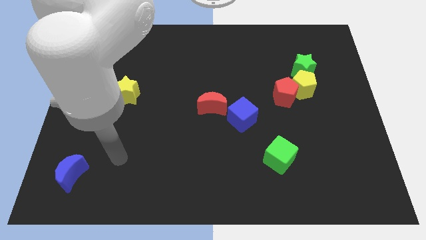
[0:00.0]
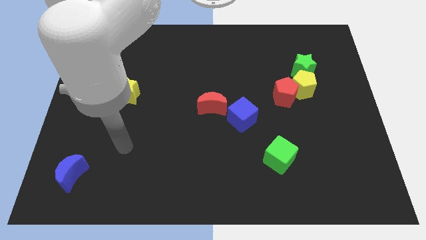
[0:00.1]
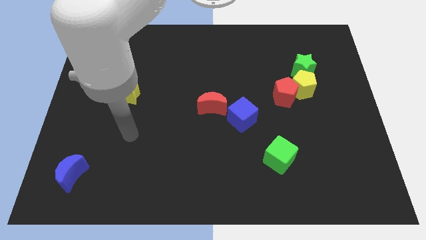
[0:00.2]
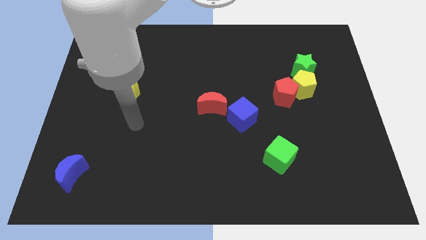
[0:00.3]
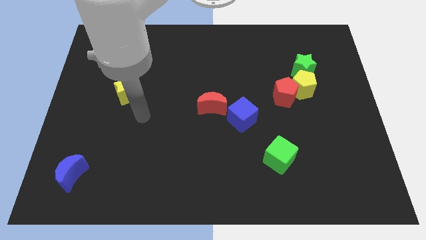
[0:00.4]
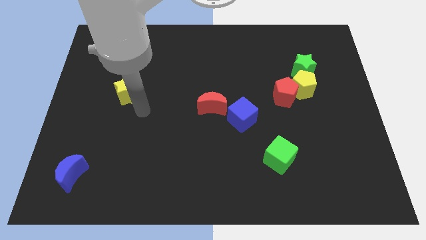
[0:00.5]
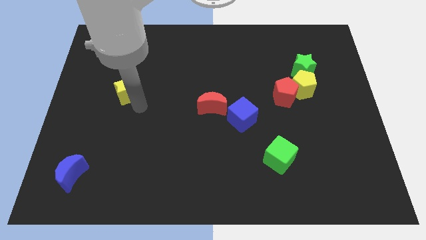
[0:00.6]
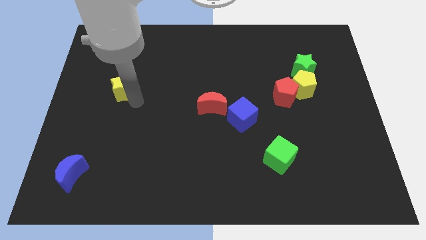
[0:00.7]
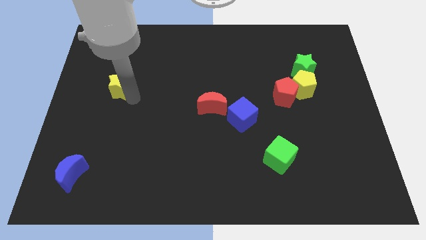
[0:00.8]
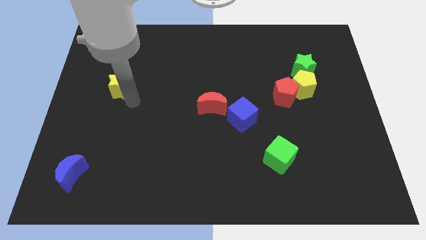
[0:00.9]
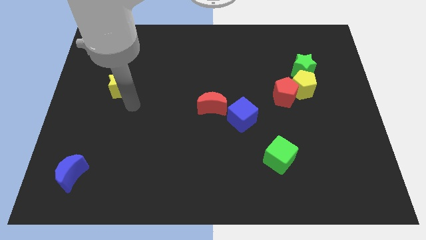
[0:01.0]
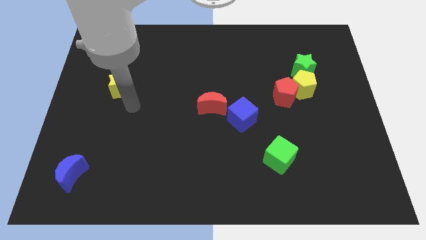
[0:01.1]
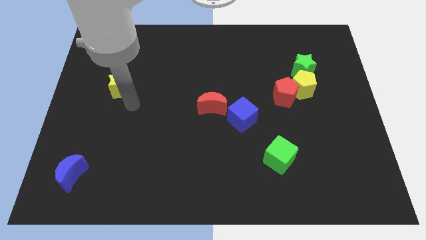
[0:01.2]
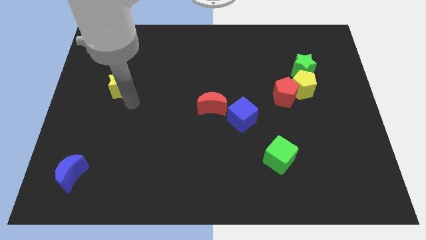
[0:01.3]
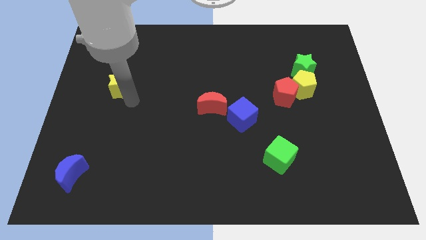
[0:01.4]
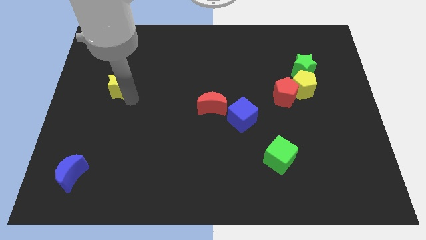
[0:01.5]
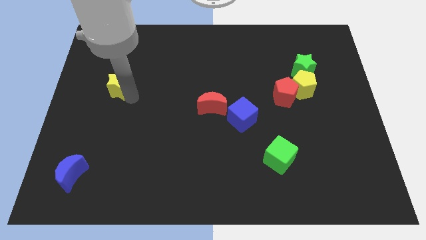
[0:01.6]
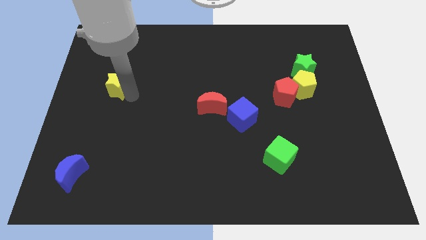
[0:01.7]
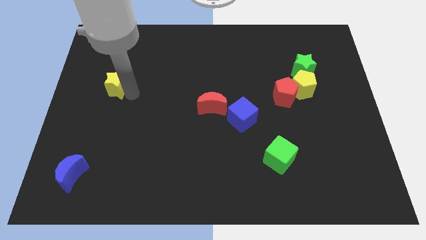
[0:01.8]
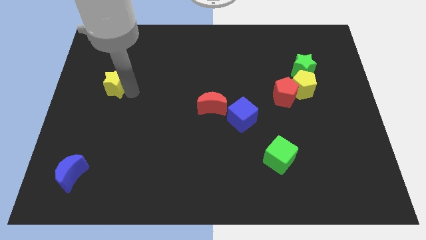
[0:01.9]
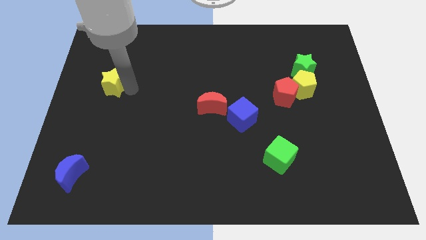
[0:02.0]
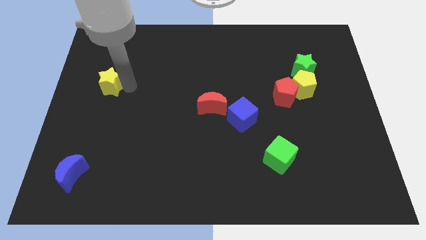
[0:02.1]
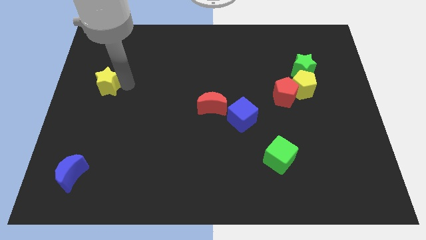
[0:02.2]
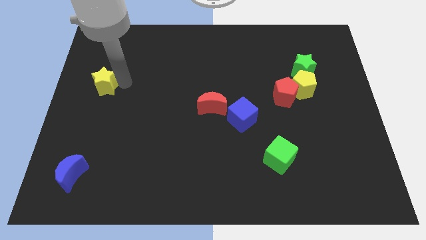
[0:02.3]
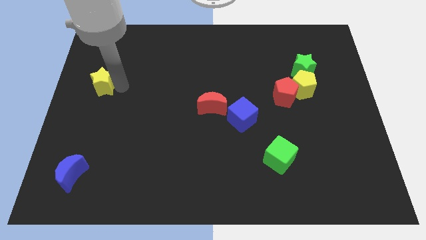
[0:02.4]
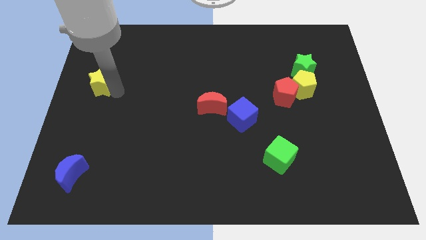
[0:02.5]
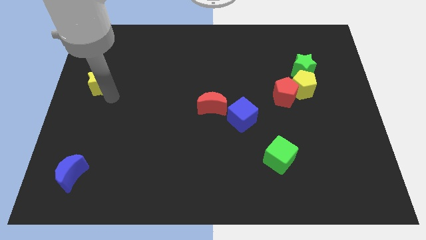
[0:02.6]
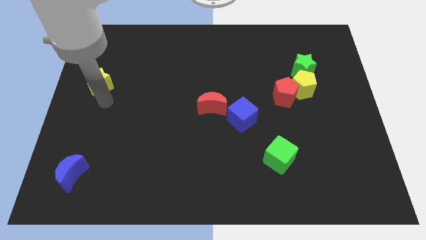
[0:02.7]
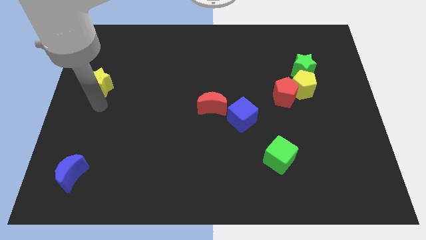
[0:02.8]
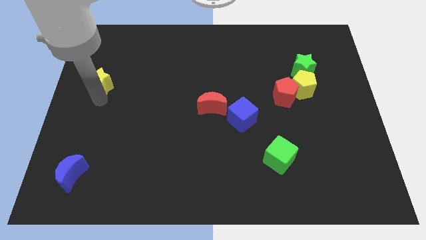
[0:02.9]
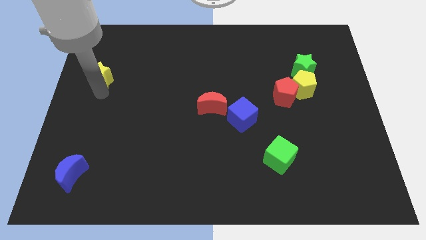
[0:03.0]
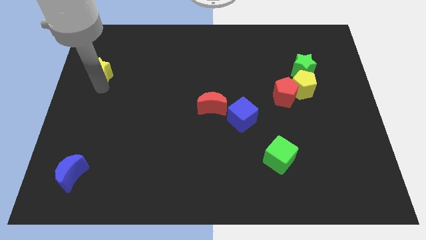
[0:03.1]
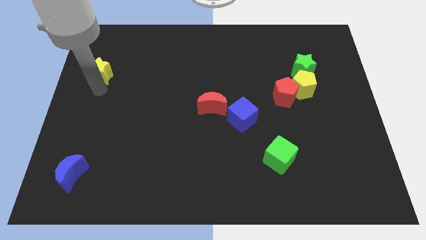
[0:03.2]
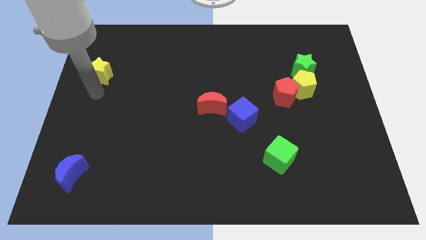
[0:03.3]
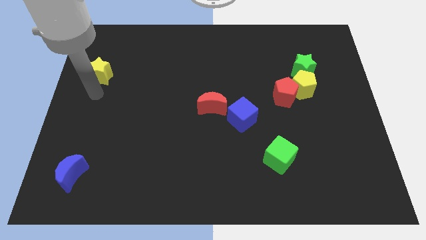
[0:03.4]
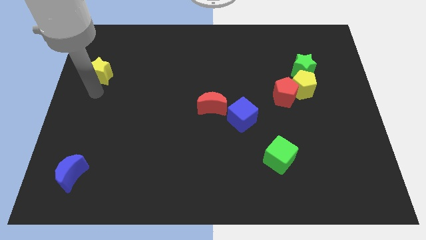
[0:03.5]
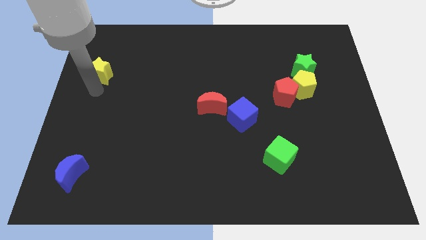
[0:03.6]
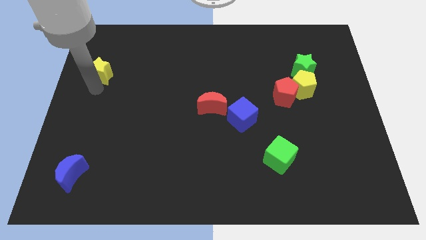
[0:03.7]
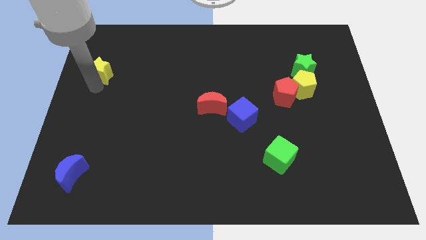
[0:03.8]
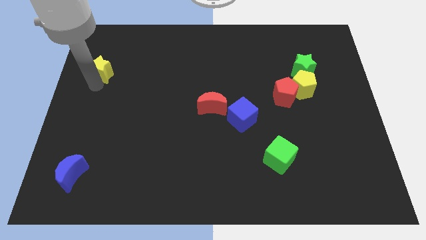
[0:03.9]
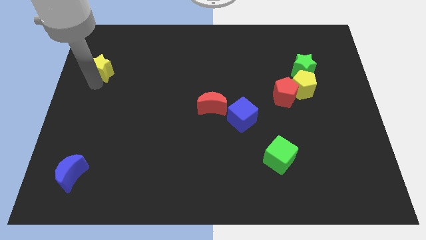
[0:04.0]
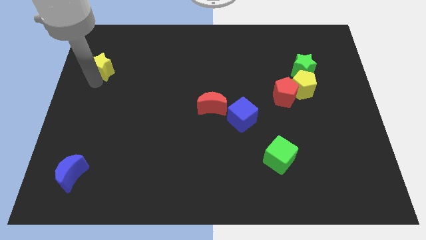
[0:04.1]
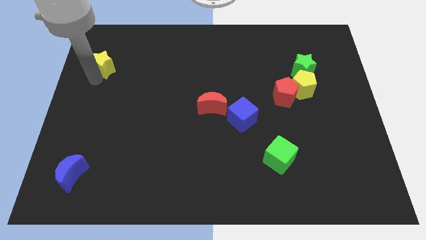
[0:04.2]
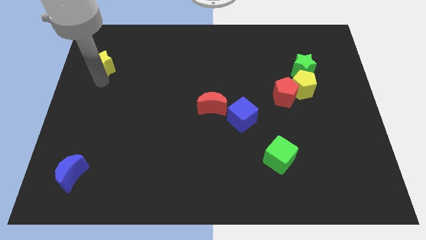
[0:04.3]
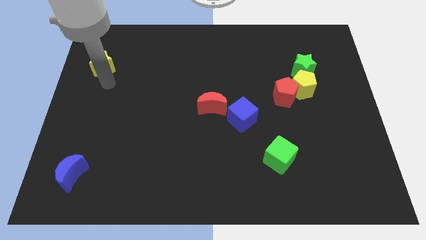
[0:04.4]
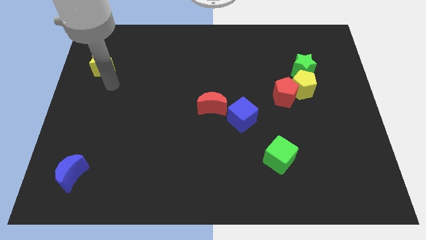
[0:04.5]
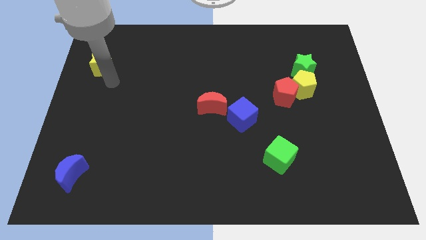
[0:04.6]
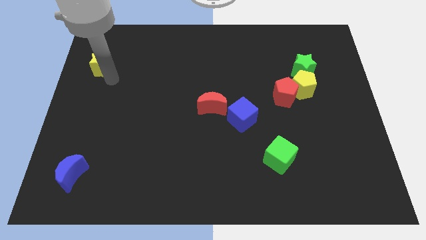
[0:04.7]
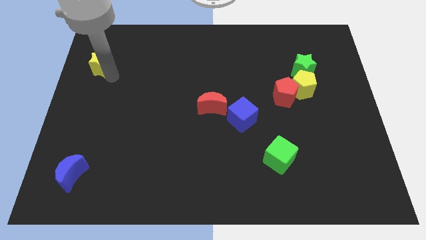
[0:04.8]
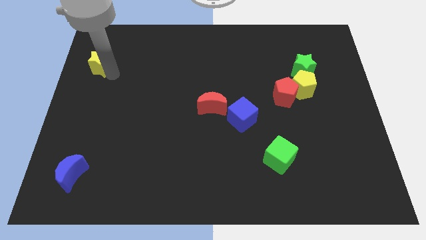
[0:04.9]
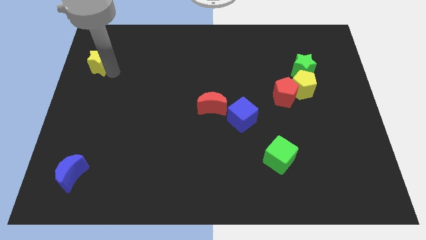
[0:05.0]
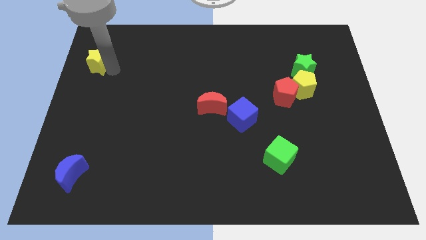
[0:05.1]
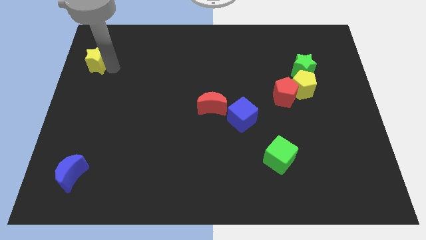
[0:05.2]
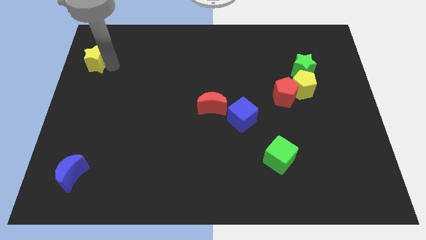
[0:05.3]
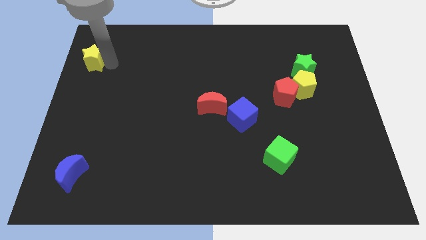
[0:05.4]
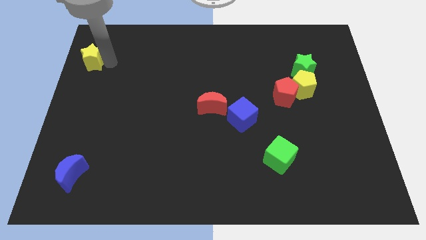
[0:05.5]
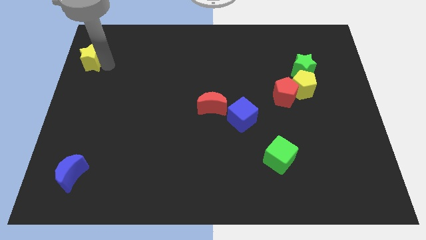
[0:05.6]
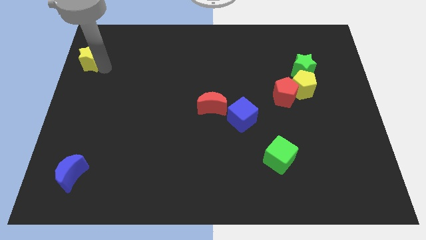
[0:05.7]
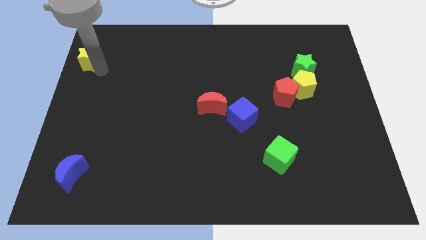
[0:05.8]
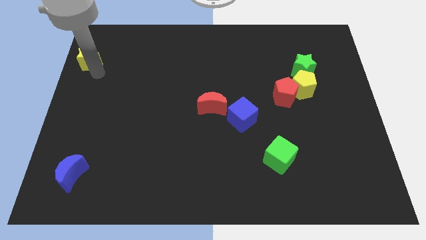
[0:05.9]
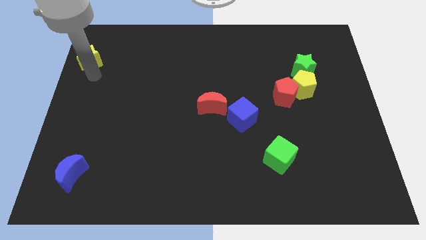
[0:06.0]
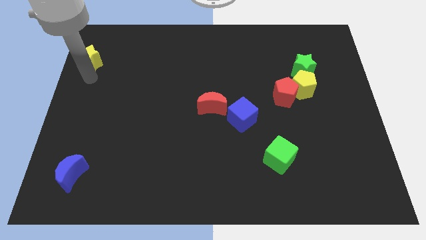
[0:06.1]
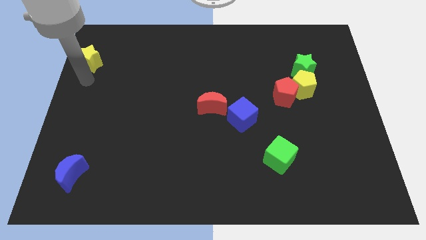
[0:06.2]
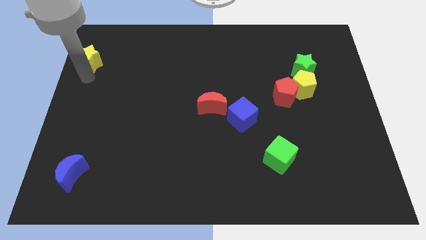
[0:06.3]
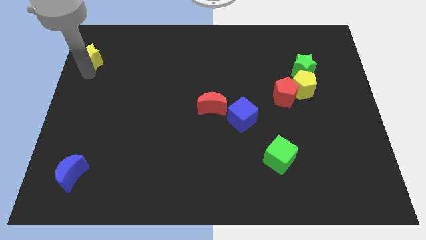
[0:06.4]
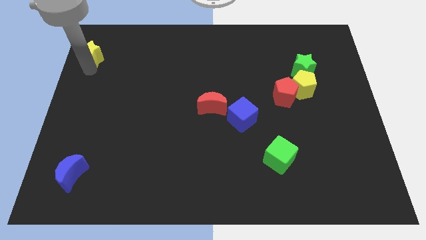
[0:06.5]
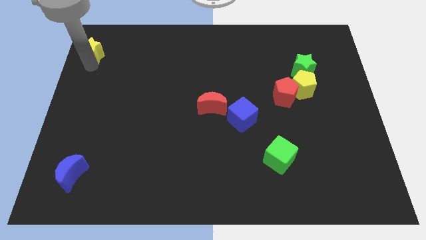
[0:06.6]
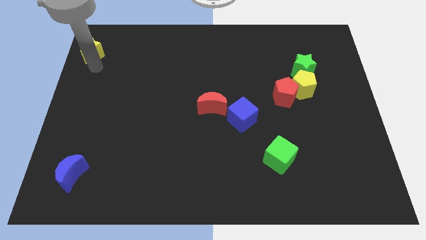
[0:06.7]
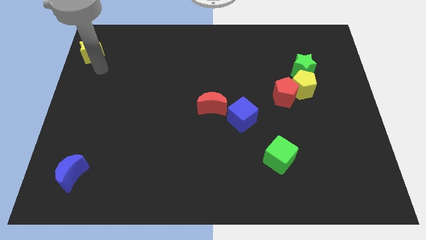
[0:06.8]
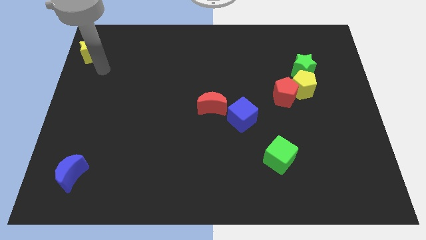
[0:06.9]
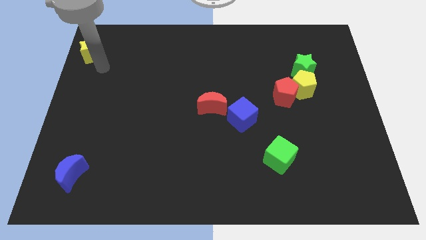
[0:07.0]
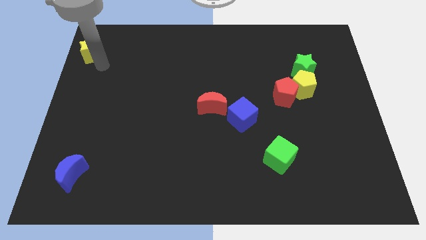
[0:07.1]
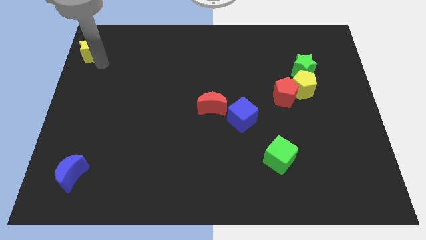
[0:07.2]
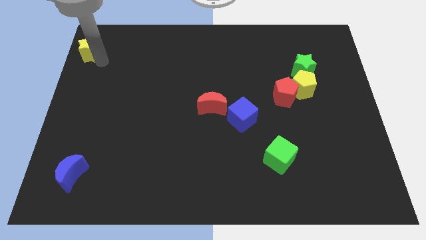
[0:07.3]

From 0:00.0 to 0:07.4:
slide the yellow star to the top left of the board
